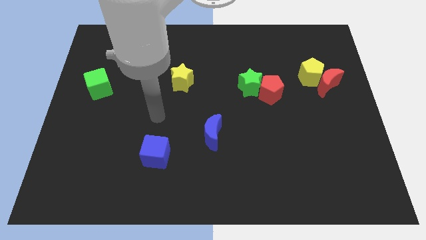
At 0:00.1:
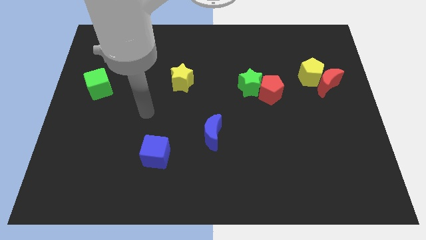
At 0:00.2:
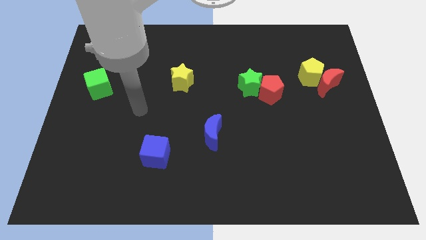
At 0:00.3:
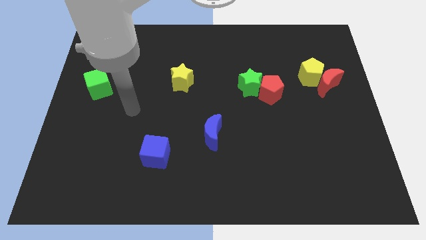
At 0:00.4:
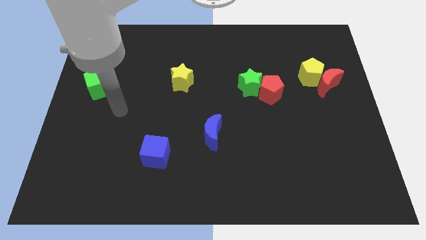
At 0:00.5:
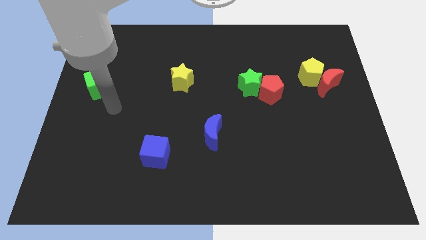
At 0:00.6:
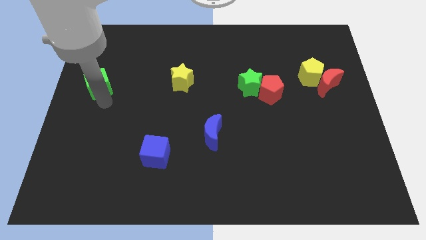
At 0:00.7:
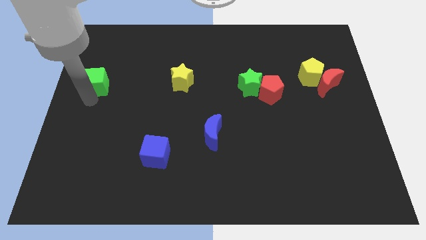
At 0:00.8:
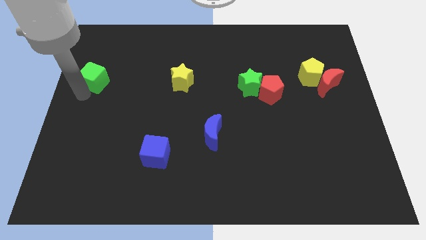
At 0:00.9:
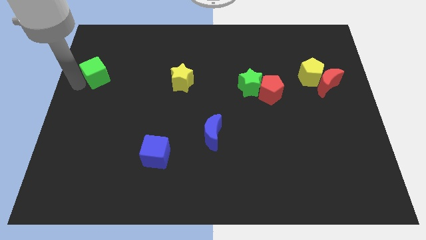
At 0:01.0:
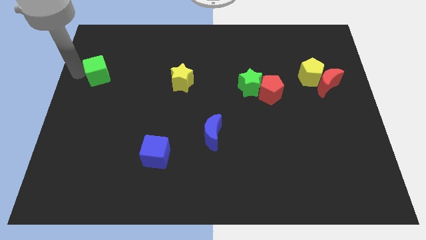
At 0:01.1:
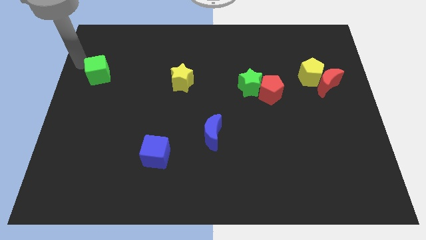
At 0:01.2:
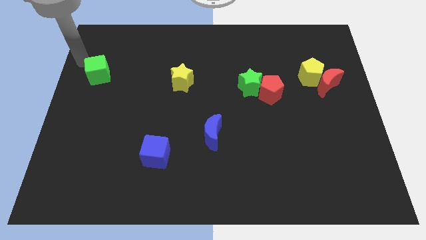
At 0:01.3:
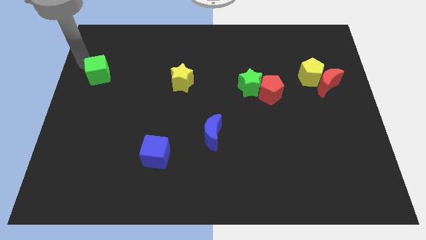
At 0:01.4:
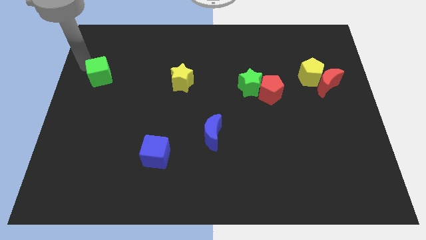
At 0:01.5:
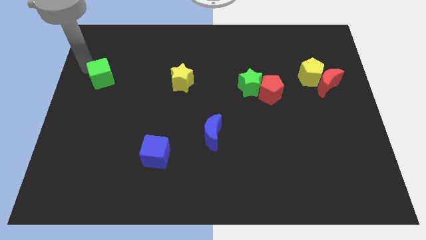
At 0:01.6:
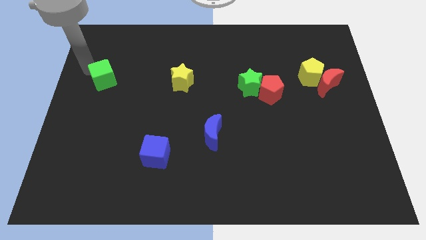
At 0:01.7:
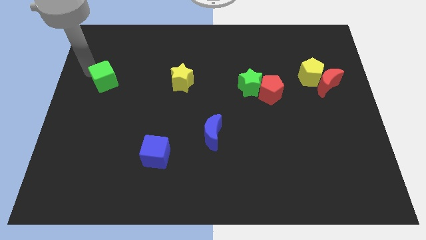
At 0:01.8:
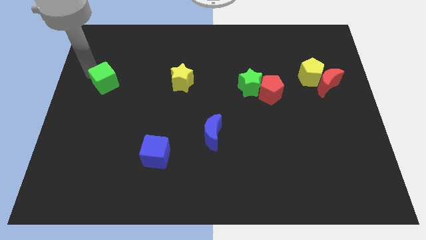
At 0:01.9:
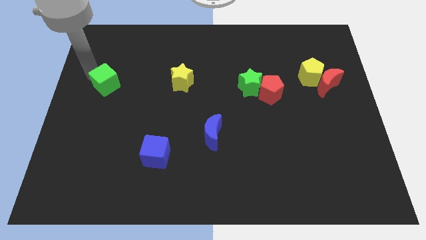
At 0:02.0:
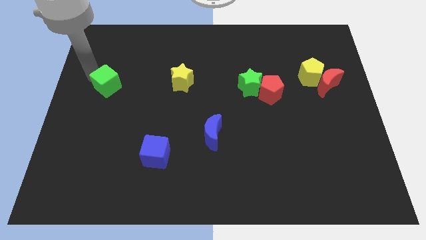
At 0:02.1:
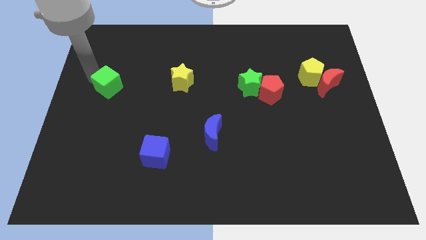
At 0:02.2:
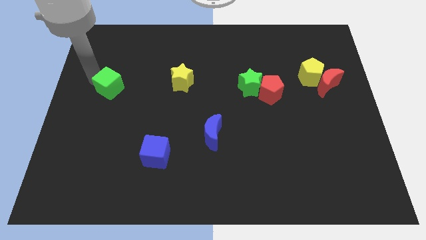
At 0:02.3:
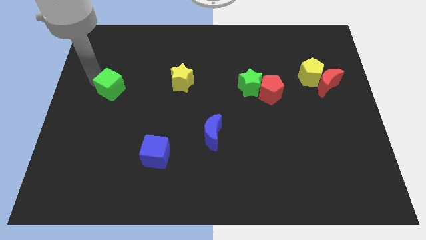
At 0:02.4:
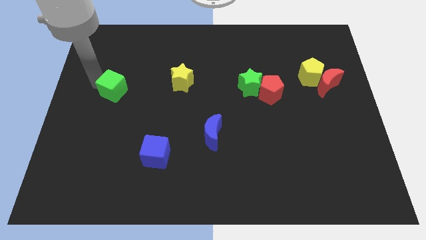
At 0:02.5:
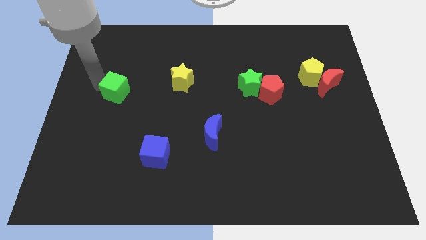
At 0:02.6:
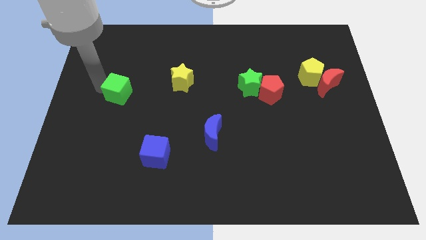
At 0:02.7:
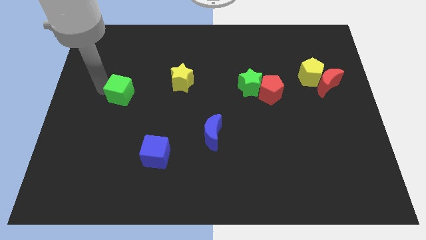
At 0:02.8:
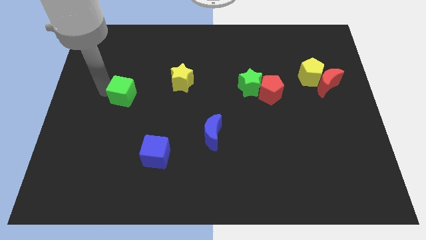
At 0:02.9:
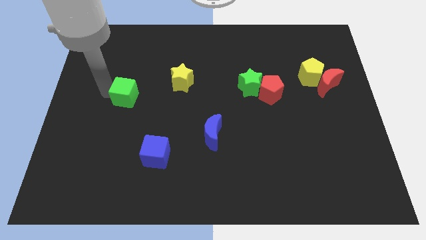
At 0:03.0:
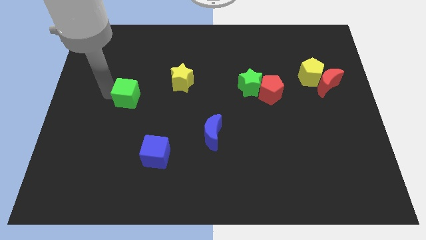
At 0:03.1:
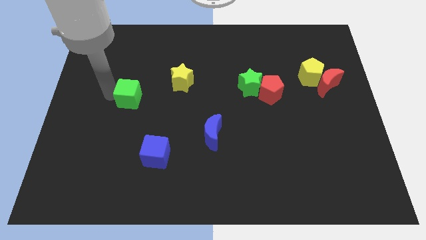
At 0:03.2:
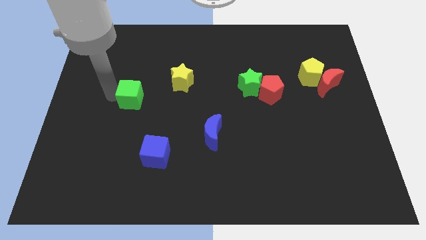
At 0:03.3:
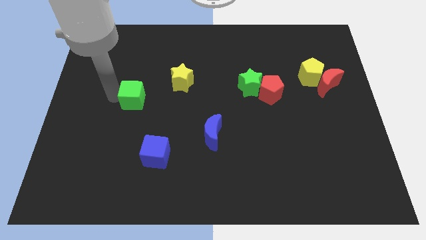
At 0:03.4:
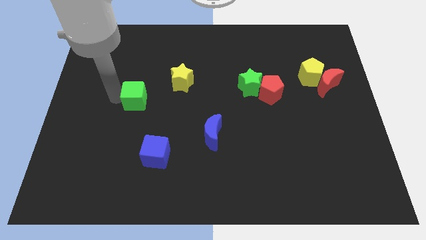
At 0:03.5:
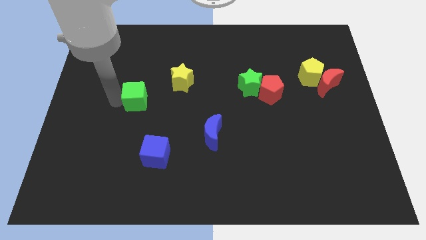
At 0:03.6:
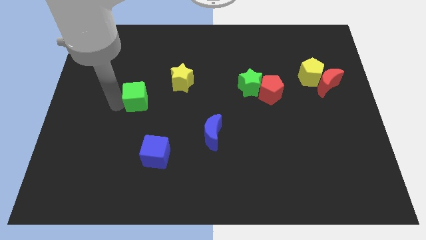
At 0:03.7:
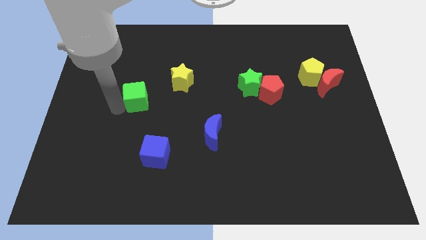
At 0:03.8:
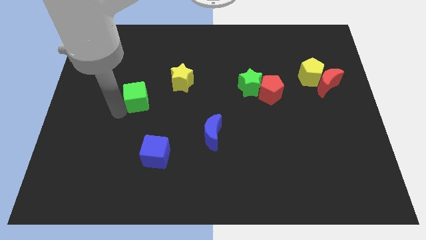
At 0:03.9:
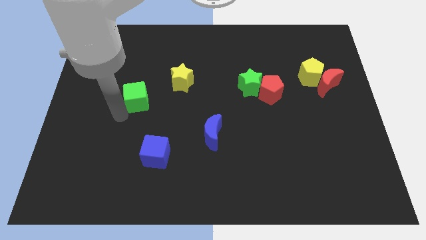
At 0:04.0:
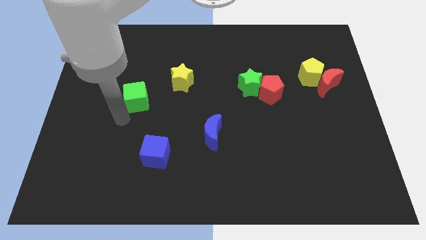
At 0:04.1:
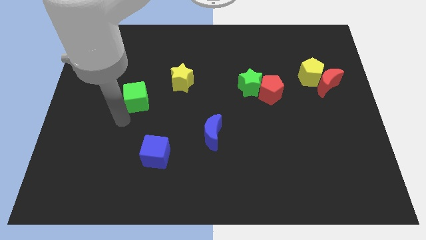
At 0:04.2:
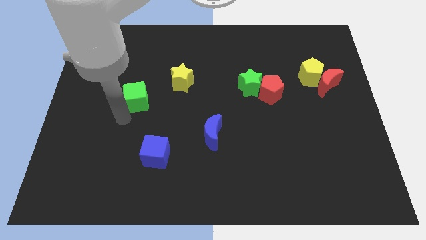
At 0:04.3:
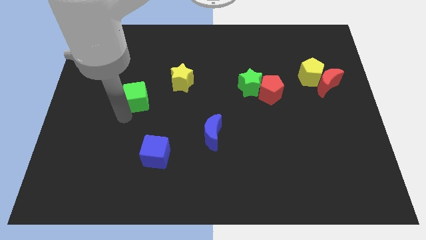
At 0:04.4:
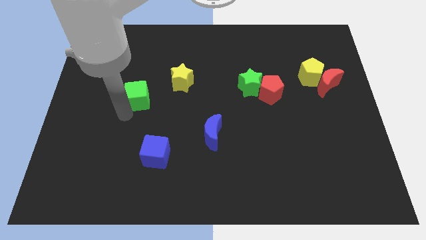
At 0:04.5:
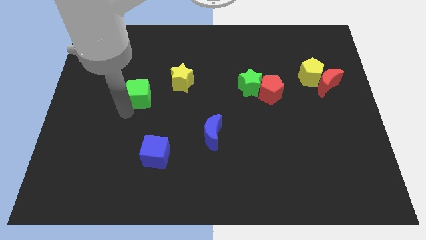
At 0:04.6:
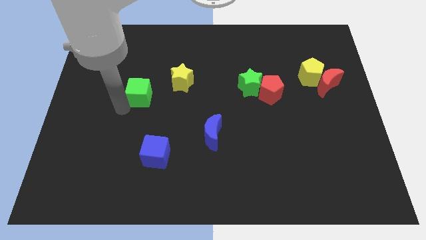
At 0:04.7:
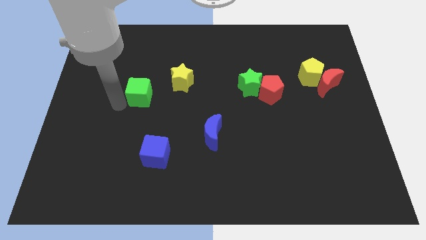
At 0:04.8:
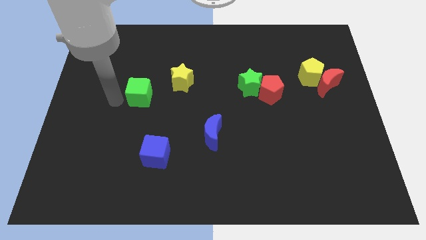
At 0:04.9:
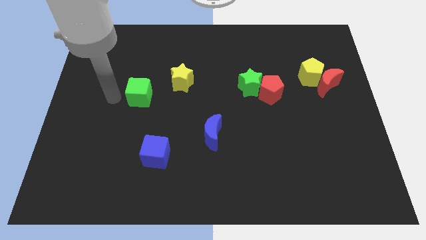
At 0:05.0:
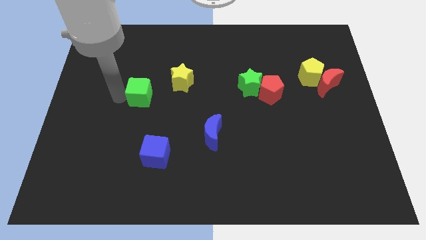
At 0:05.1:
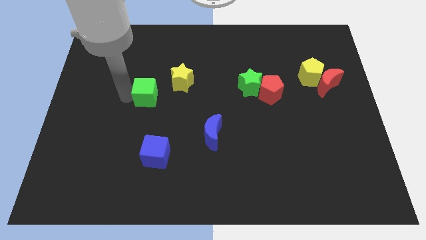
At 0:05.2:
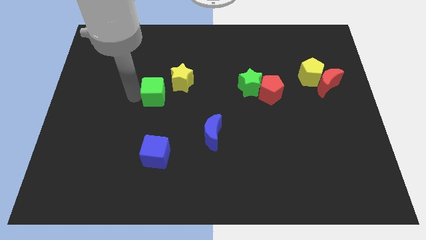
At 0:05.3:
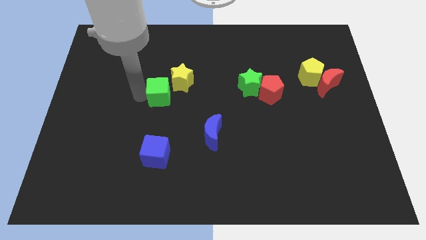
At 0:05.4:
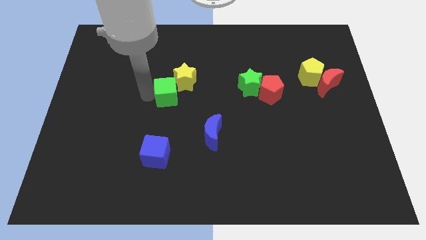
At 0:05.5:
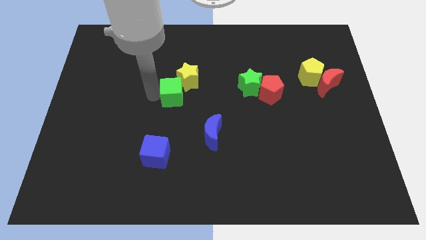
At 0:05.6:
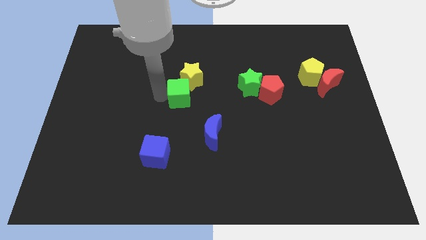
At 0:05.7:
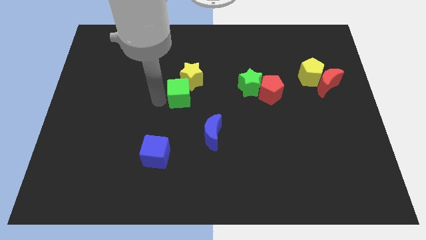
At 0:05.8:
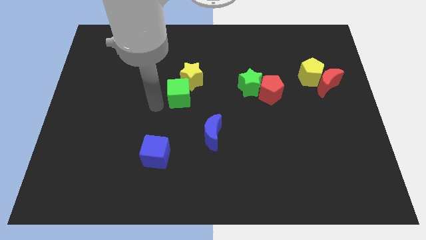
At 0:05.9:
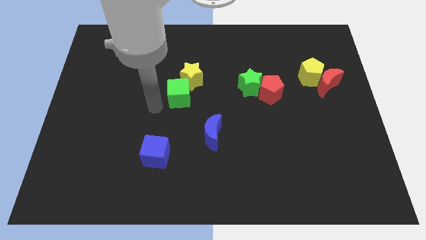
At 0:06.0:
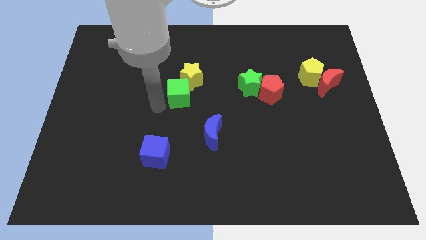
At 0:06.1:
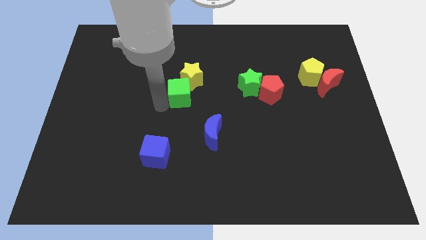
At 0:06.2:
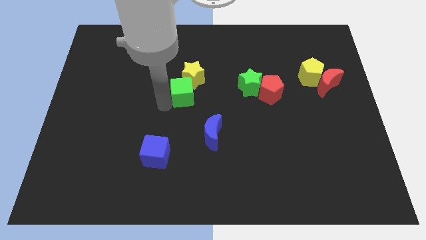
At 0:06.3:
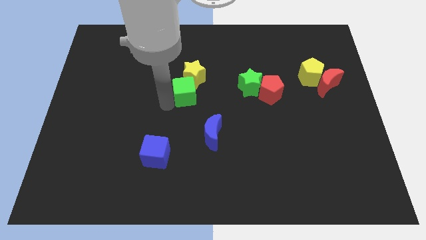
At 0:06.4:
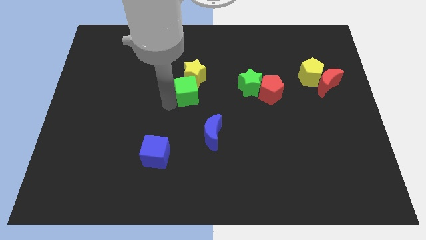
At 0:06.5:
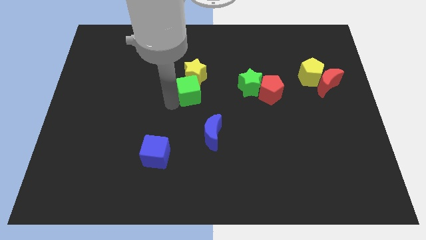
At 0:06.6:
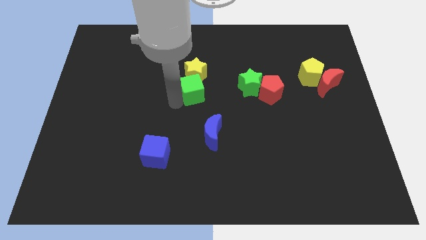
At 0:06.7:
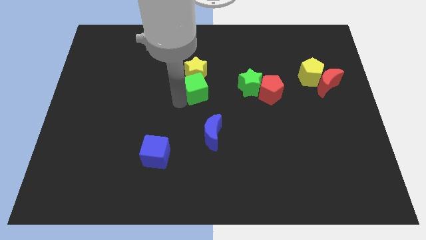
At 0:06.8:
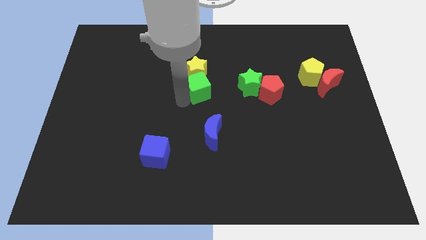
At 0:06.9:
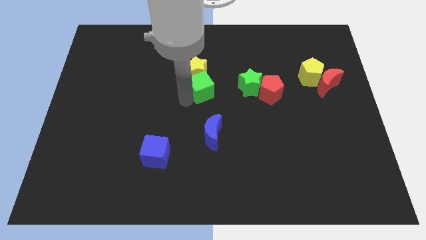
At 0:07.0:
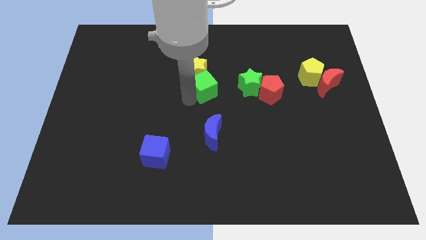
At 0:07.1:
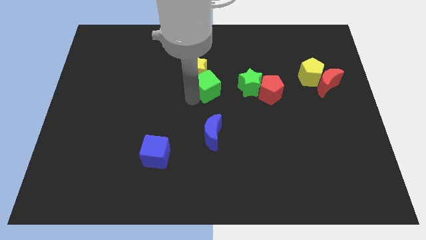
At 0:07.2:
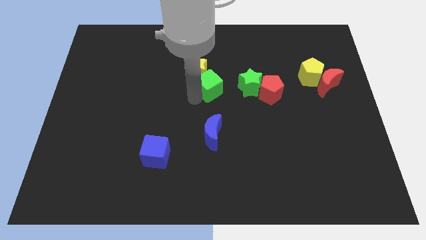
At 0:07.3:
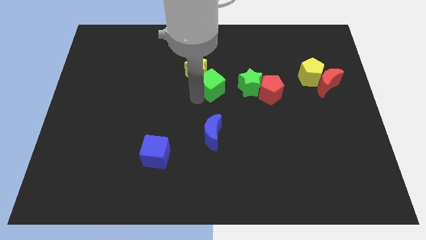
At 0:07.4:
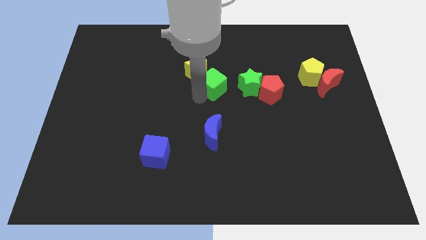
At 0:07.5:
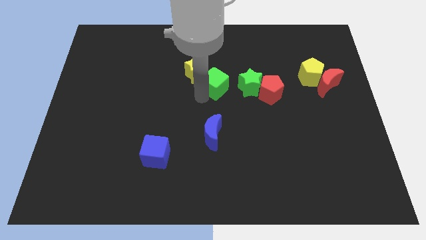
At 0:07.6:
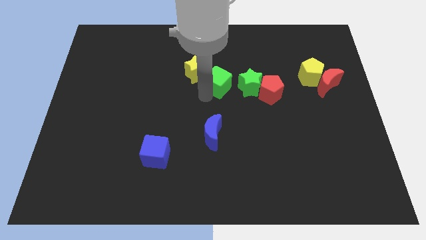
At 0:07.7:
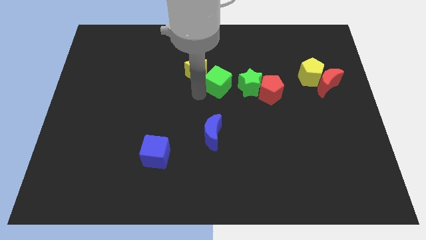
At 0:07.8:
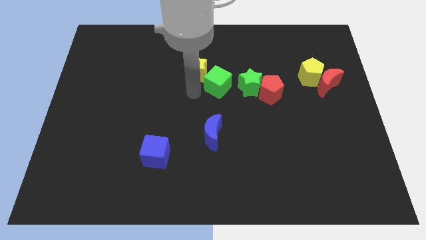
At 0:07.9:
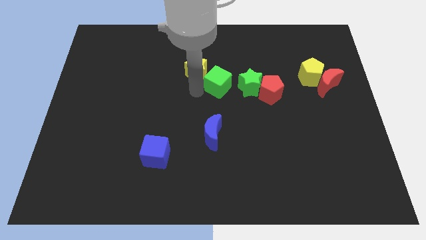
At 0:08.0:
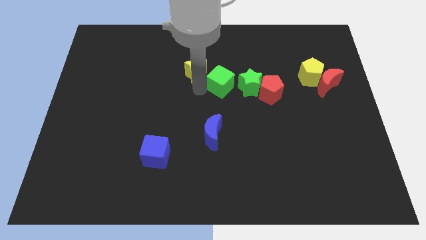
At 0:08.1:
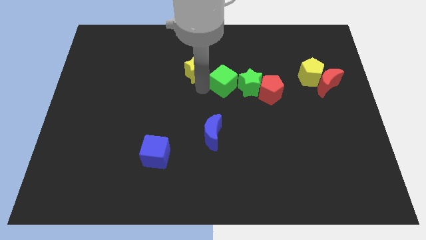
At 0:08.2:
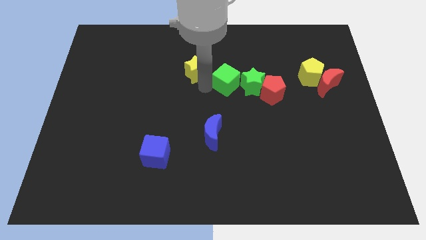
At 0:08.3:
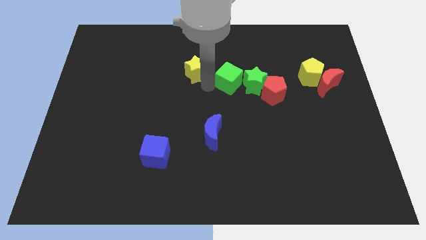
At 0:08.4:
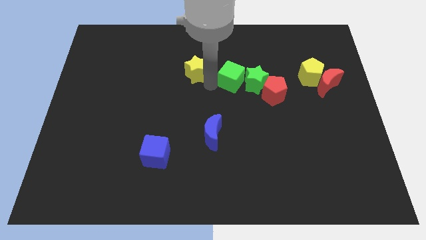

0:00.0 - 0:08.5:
slide the green cube diagonally up and to the left of the red pentagon
